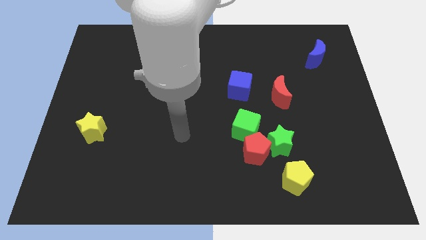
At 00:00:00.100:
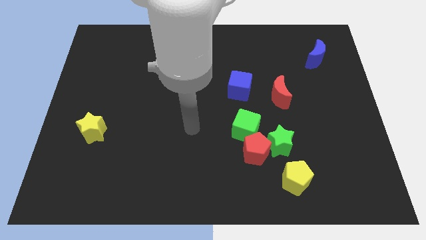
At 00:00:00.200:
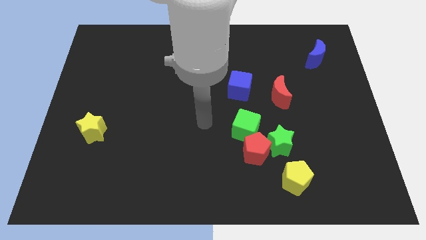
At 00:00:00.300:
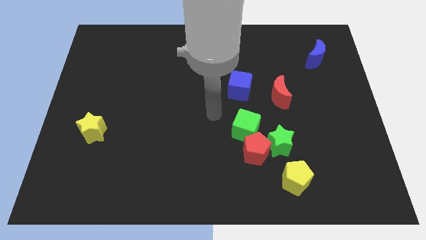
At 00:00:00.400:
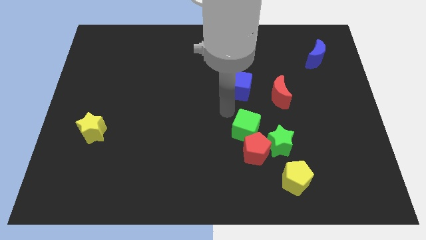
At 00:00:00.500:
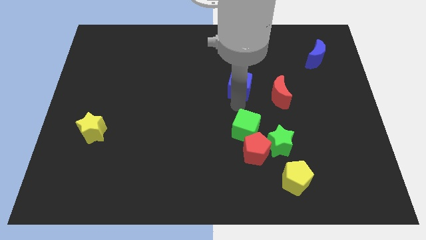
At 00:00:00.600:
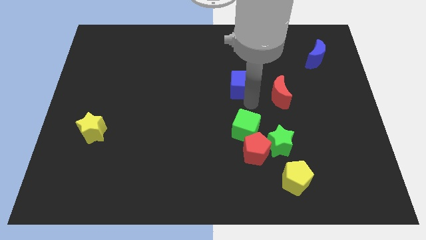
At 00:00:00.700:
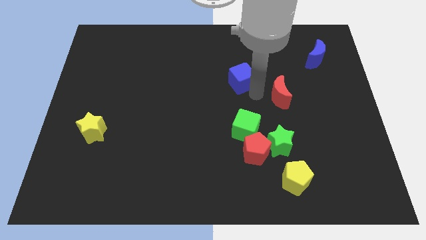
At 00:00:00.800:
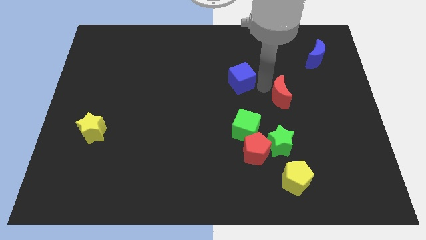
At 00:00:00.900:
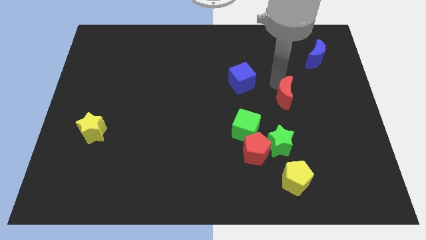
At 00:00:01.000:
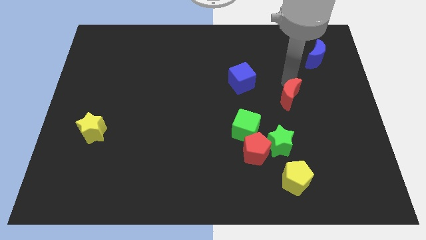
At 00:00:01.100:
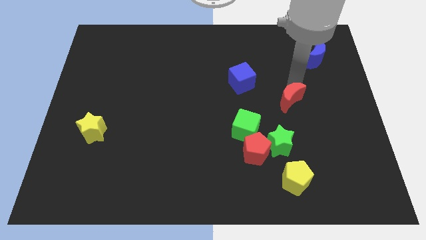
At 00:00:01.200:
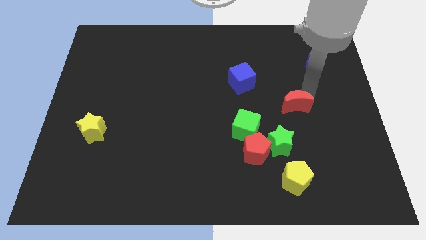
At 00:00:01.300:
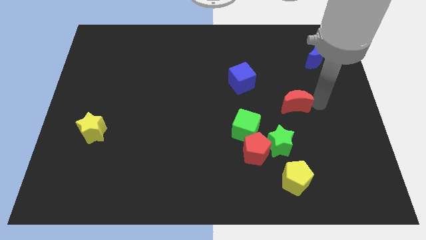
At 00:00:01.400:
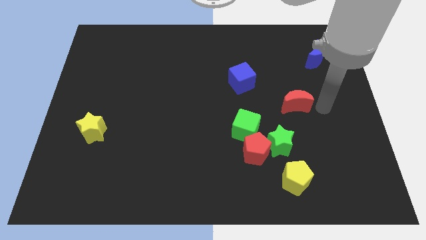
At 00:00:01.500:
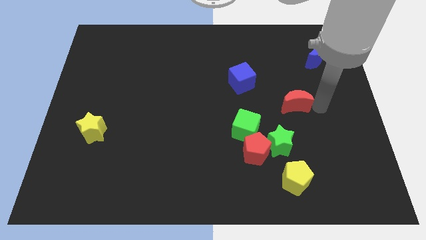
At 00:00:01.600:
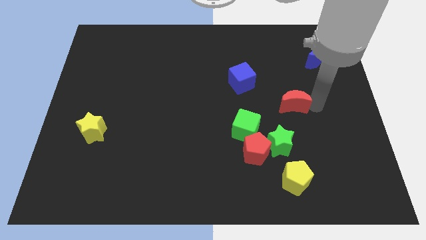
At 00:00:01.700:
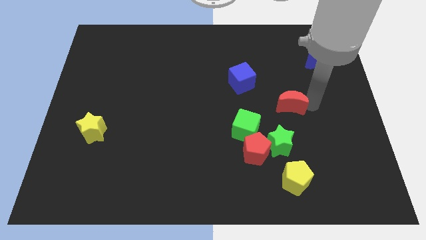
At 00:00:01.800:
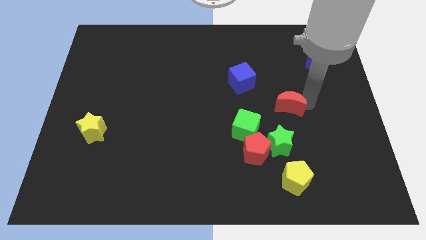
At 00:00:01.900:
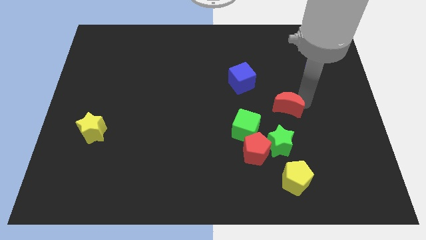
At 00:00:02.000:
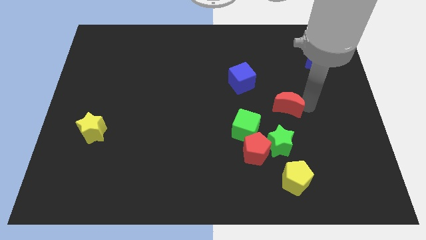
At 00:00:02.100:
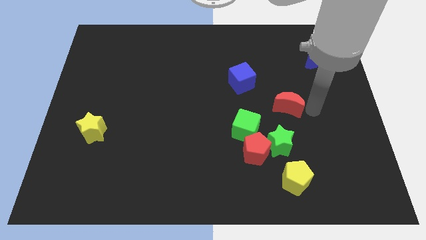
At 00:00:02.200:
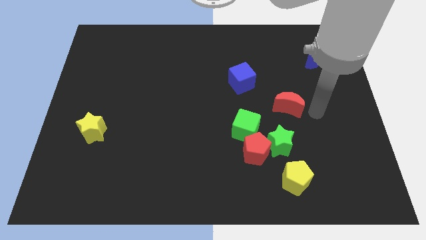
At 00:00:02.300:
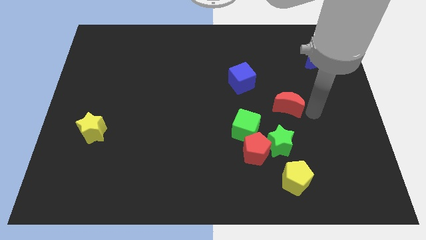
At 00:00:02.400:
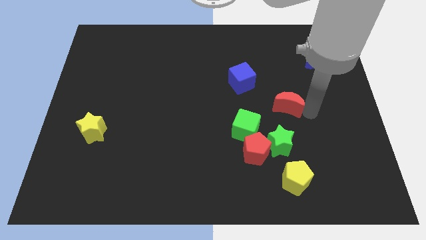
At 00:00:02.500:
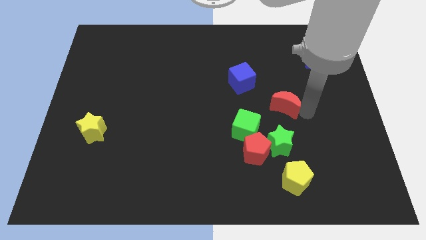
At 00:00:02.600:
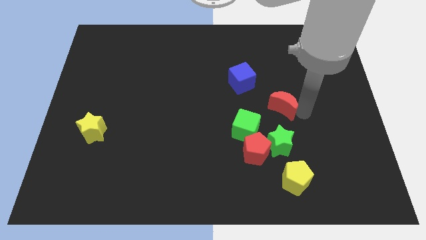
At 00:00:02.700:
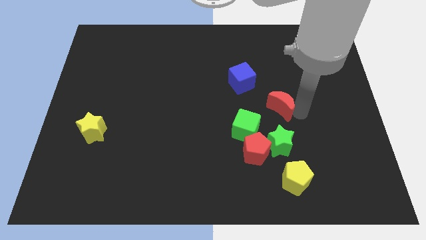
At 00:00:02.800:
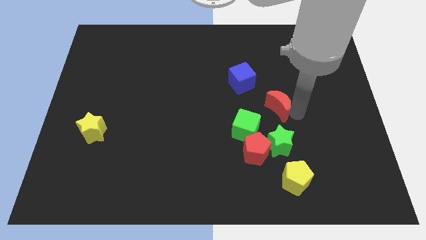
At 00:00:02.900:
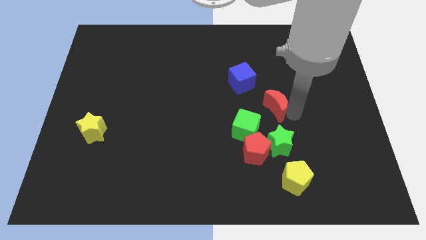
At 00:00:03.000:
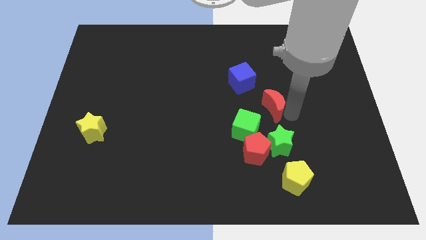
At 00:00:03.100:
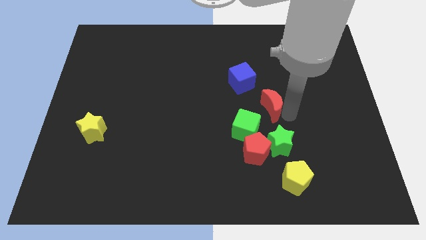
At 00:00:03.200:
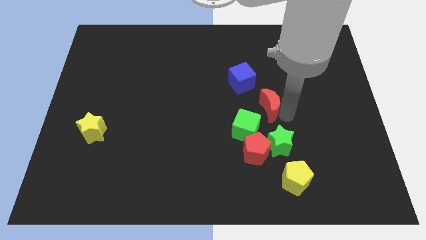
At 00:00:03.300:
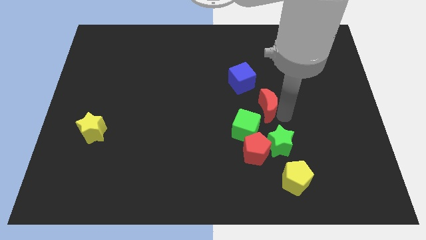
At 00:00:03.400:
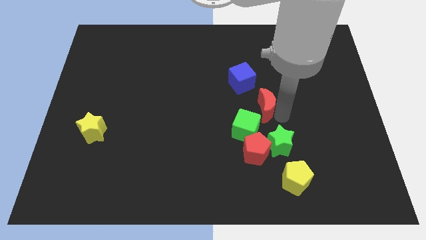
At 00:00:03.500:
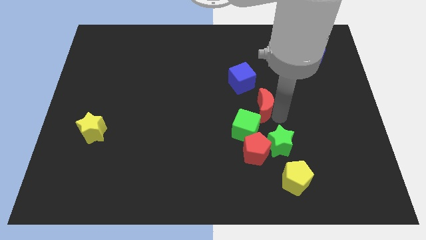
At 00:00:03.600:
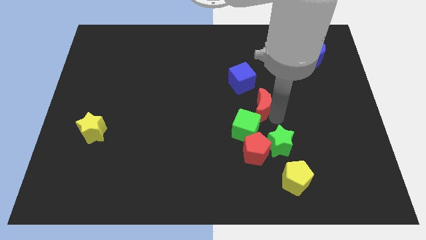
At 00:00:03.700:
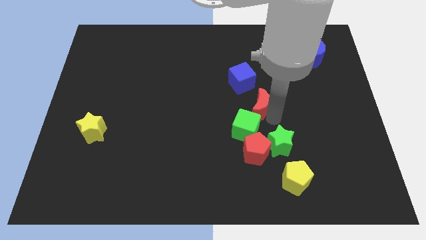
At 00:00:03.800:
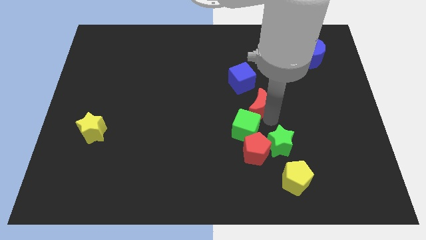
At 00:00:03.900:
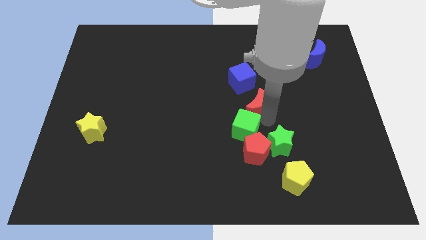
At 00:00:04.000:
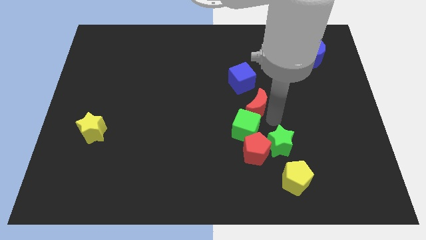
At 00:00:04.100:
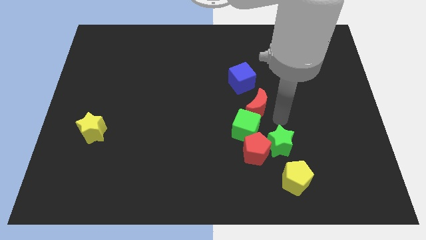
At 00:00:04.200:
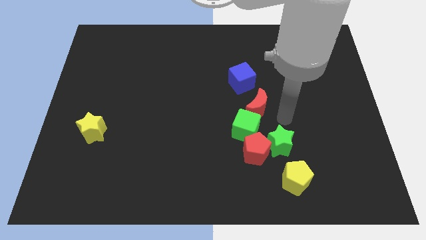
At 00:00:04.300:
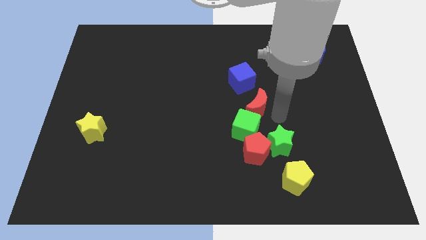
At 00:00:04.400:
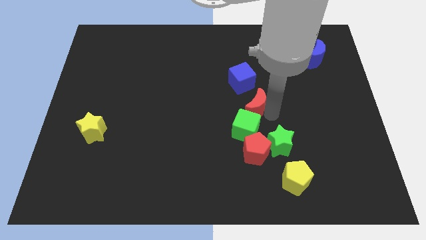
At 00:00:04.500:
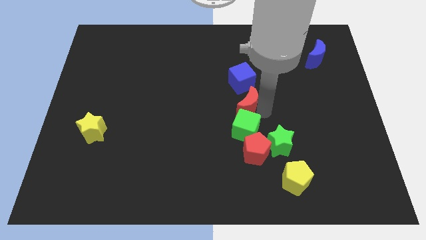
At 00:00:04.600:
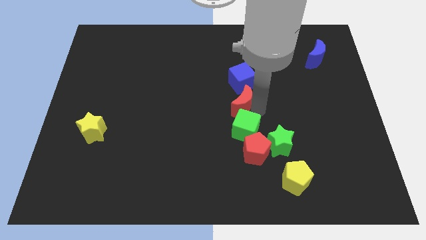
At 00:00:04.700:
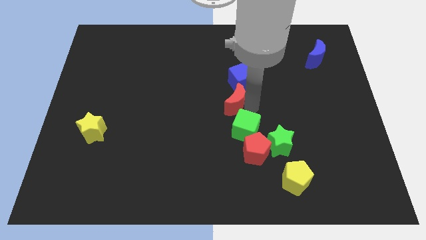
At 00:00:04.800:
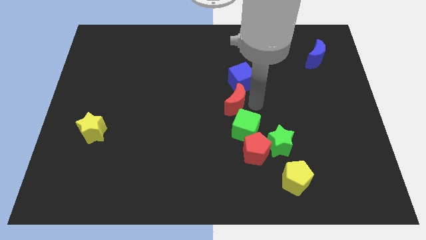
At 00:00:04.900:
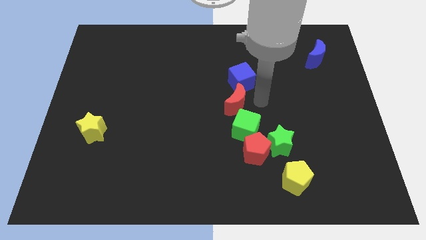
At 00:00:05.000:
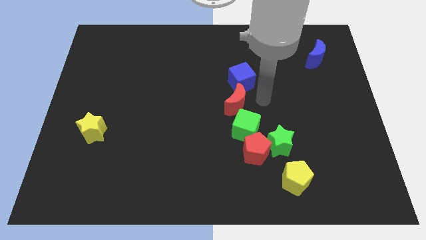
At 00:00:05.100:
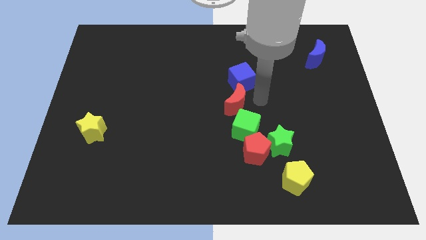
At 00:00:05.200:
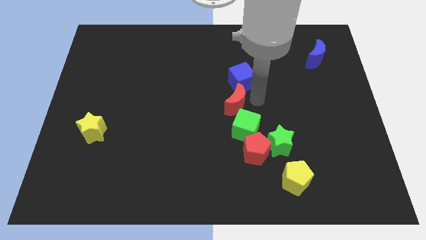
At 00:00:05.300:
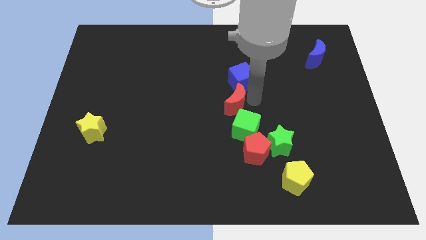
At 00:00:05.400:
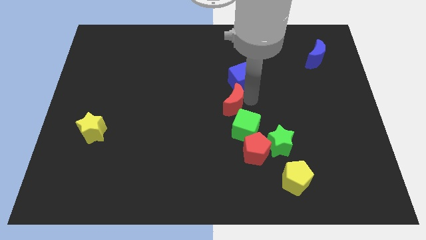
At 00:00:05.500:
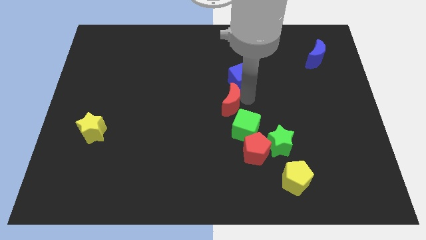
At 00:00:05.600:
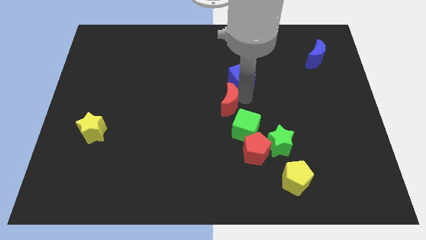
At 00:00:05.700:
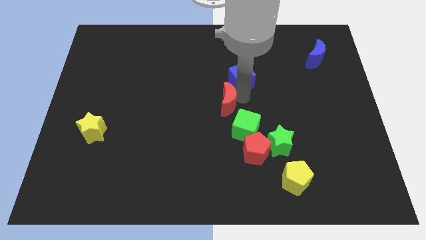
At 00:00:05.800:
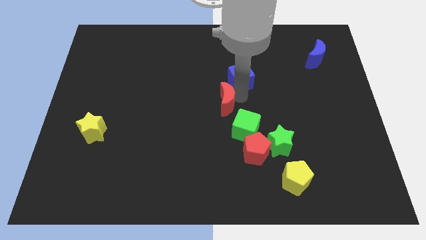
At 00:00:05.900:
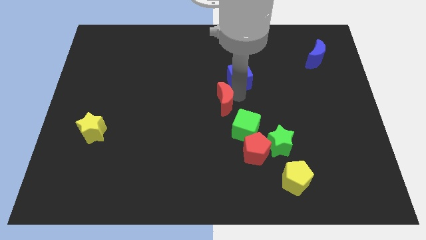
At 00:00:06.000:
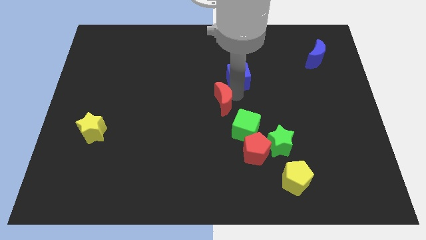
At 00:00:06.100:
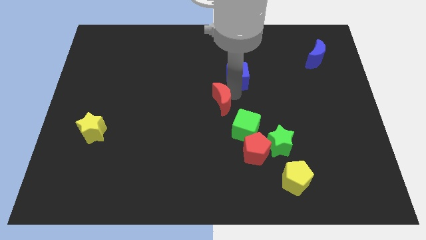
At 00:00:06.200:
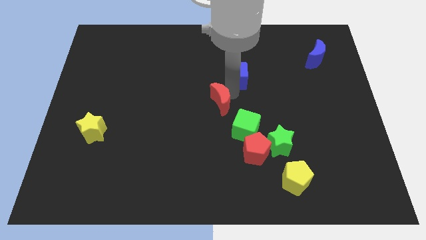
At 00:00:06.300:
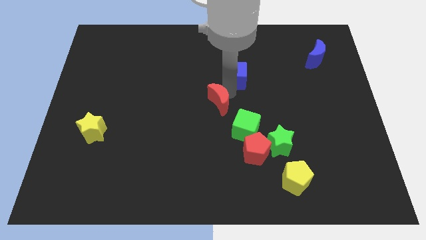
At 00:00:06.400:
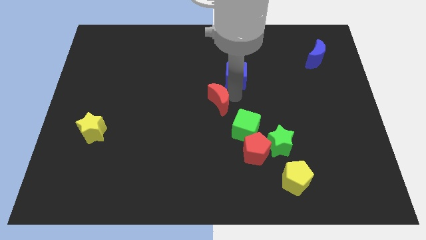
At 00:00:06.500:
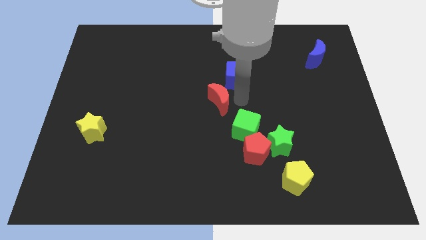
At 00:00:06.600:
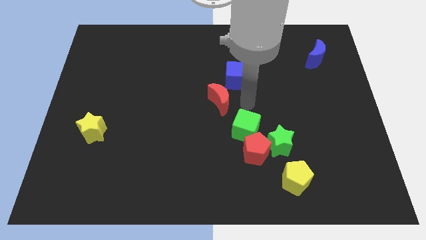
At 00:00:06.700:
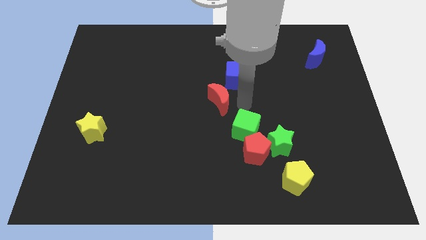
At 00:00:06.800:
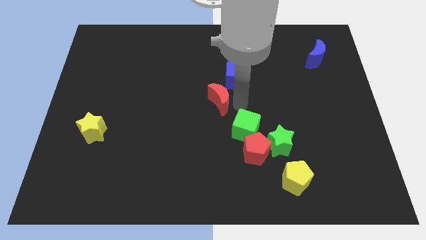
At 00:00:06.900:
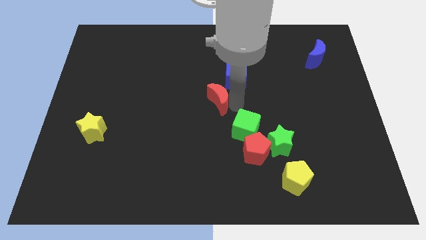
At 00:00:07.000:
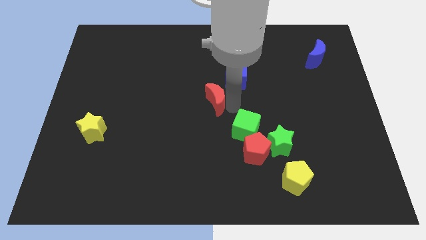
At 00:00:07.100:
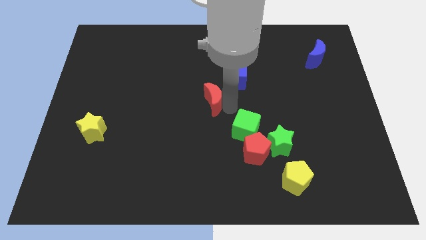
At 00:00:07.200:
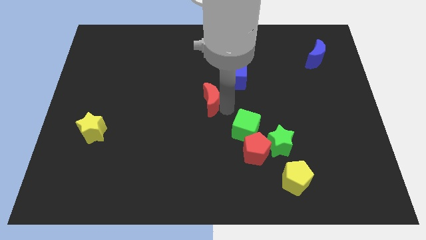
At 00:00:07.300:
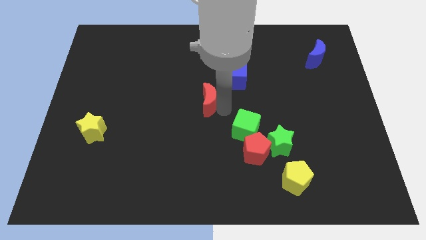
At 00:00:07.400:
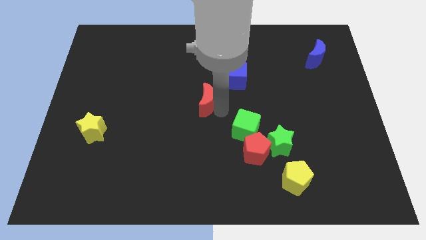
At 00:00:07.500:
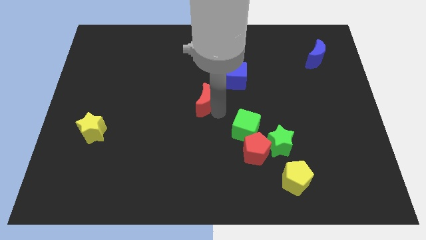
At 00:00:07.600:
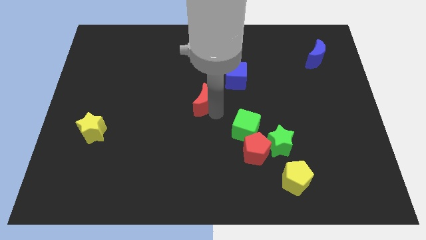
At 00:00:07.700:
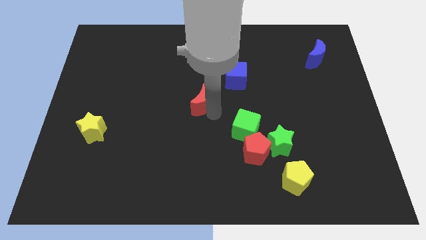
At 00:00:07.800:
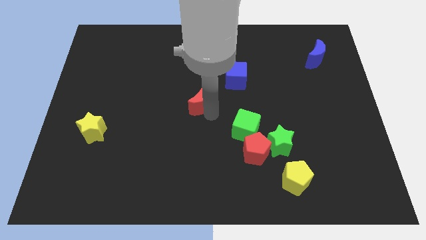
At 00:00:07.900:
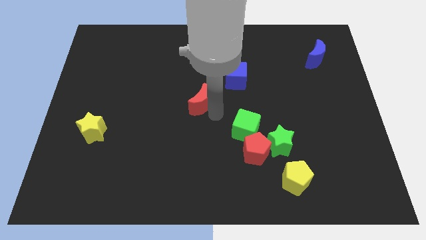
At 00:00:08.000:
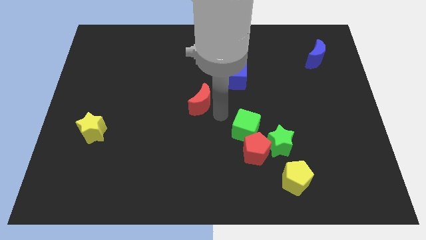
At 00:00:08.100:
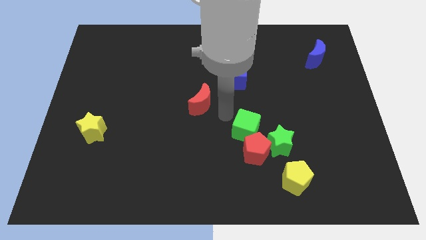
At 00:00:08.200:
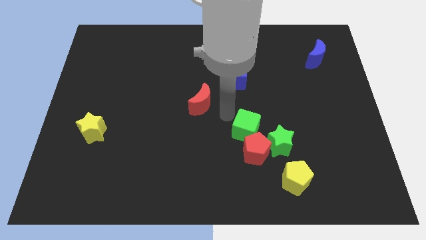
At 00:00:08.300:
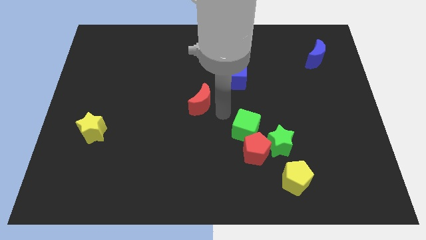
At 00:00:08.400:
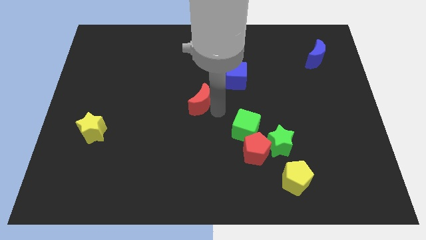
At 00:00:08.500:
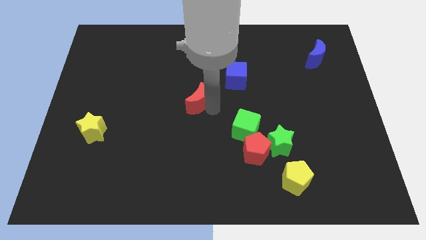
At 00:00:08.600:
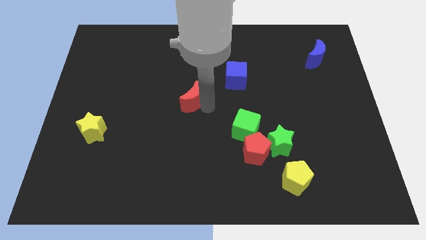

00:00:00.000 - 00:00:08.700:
move the red moon left
